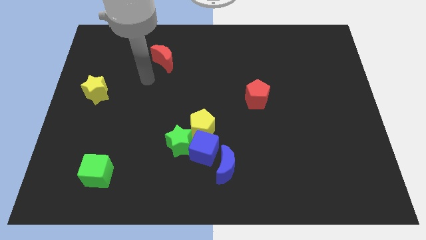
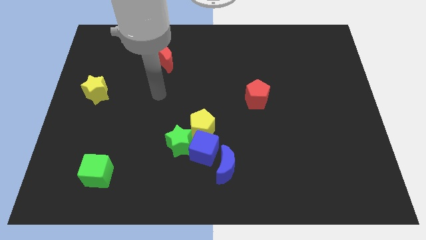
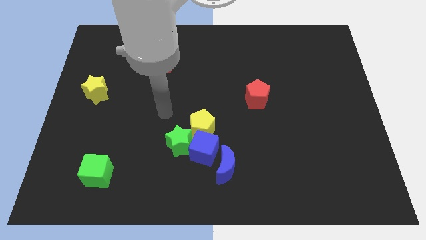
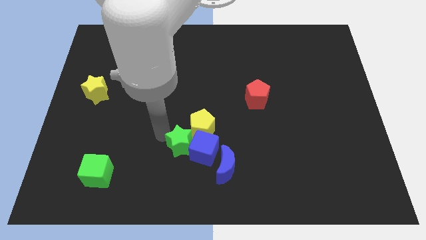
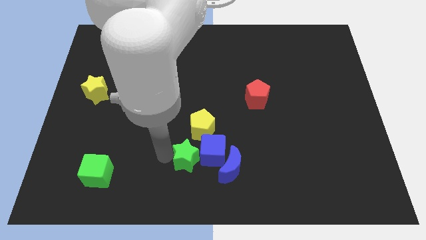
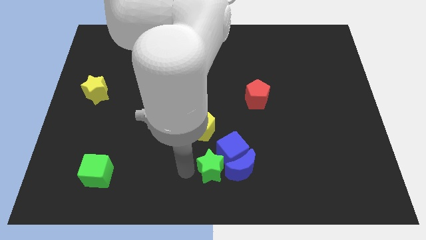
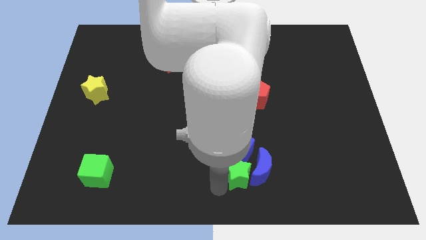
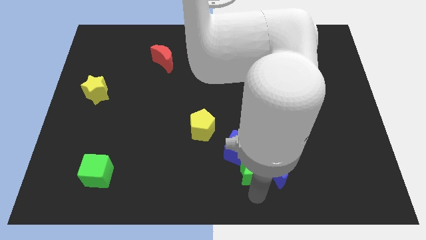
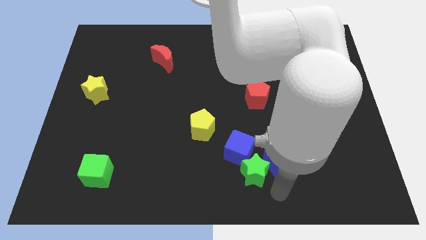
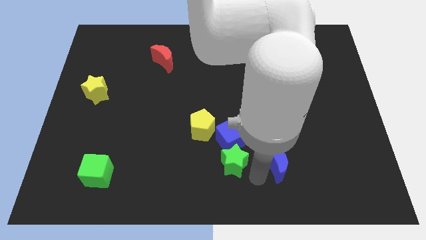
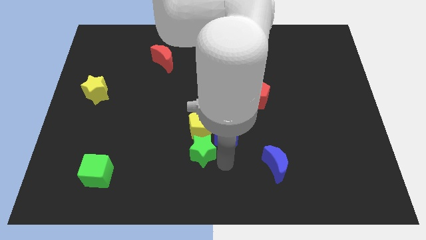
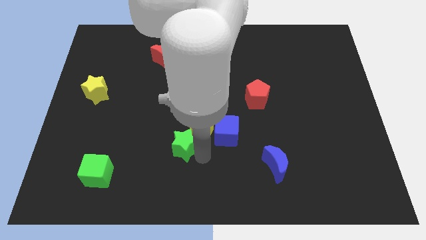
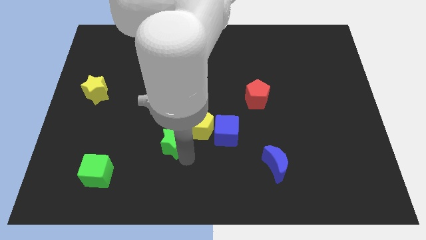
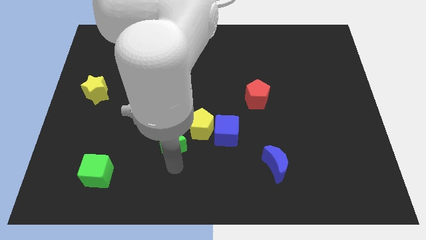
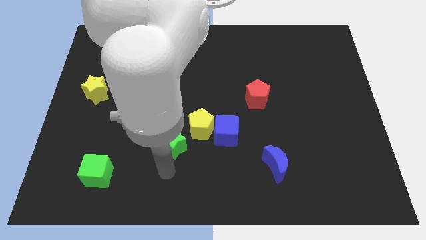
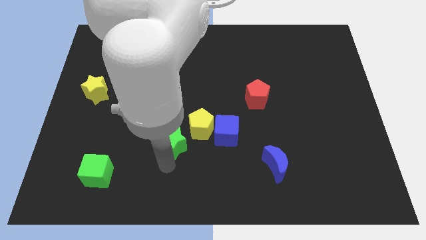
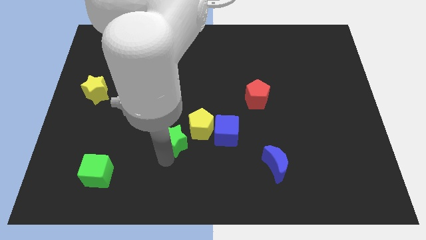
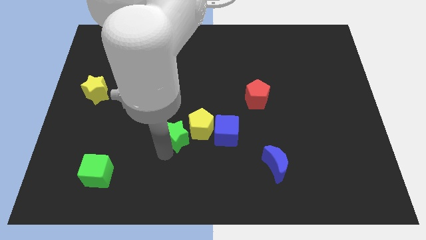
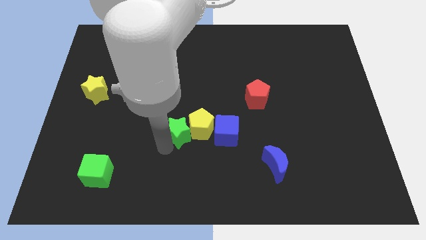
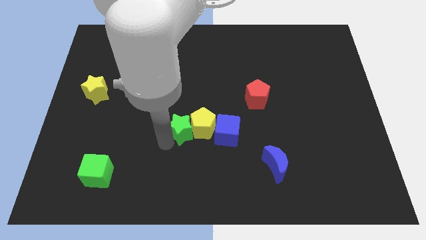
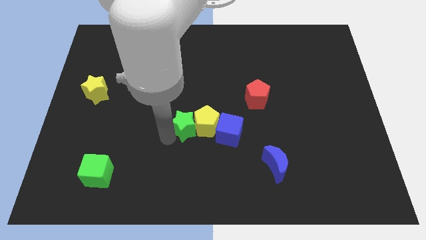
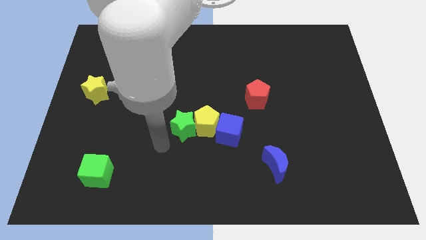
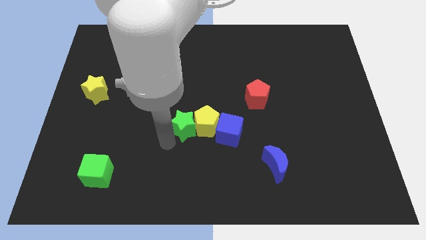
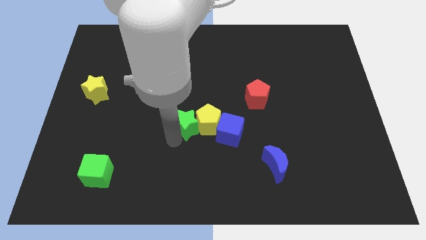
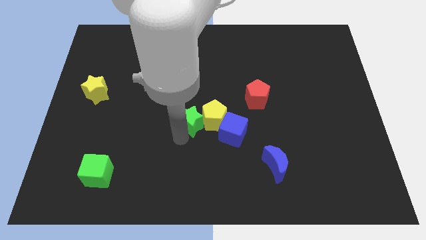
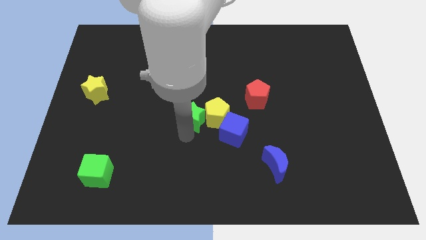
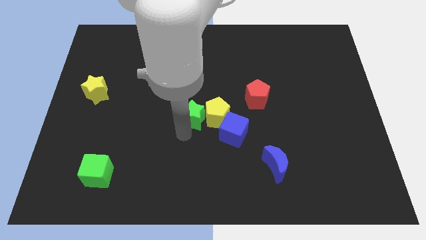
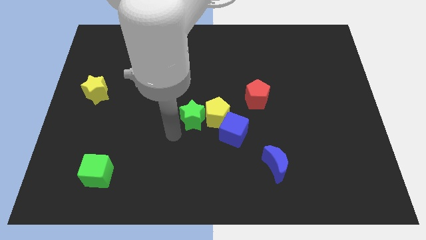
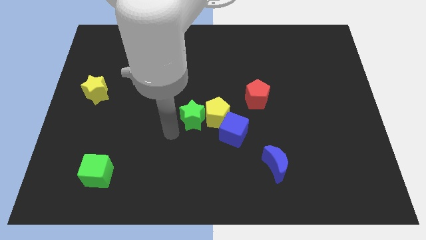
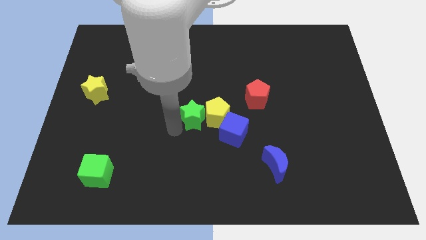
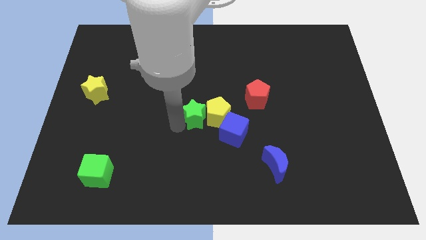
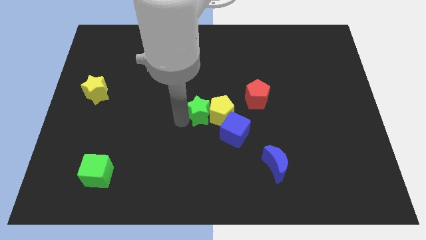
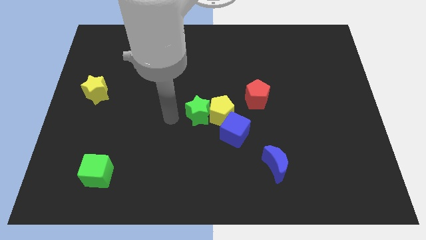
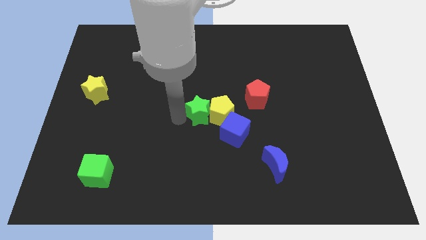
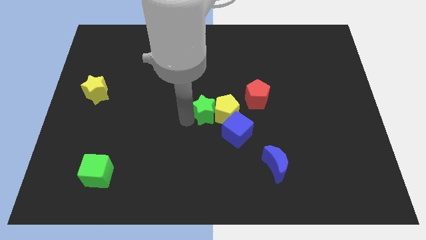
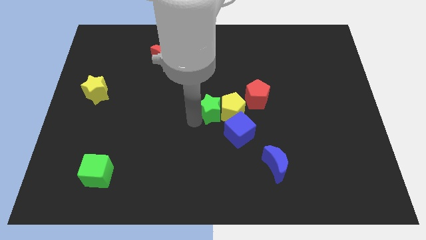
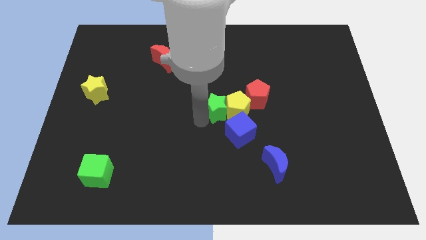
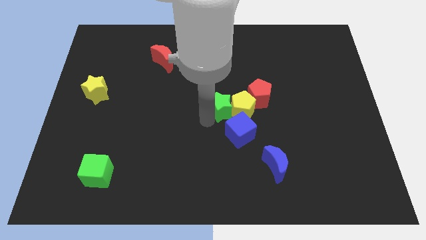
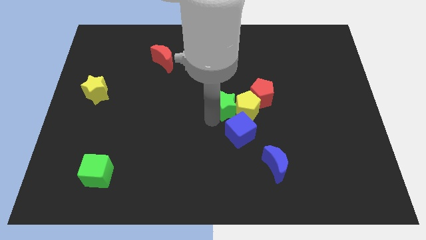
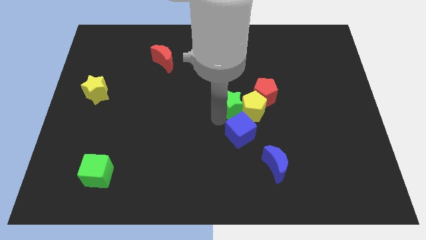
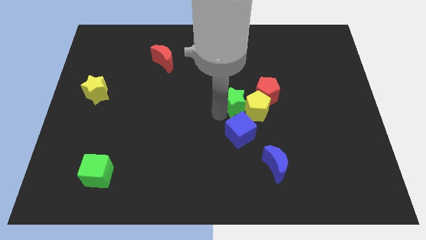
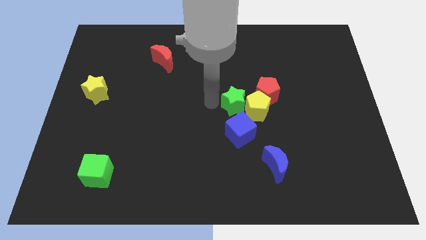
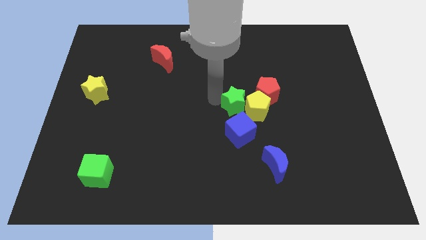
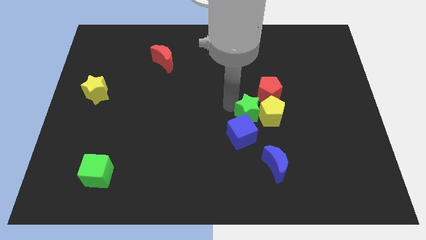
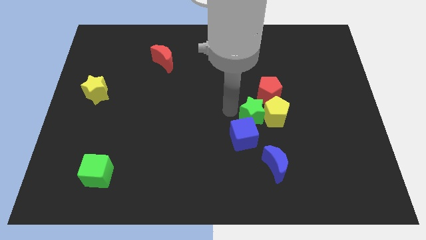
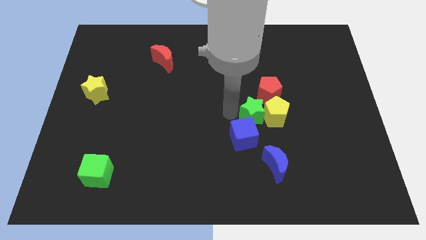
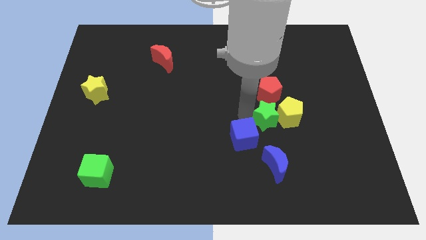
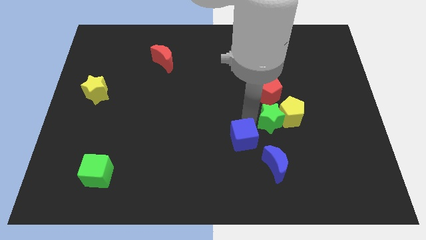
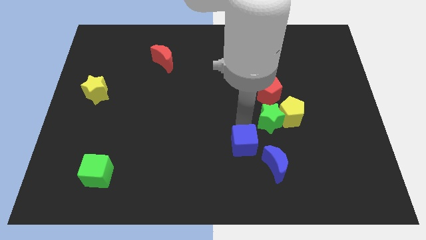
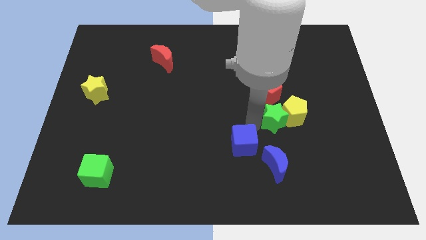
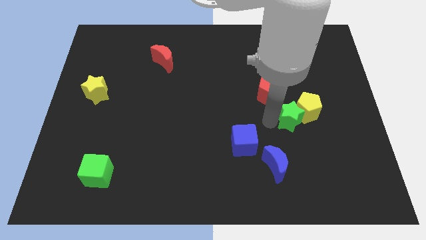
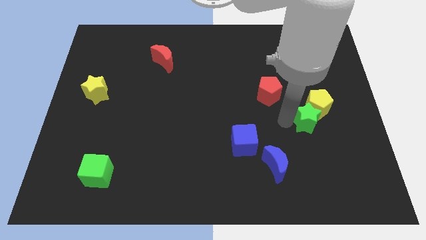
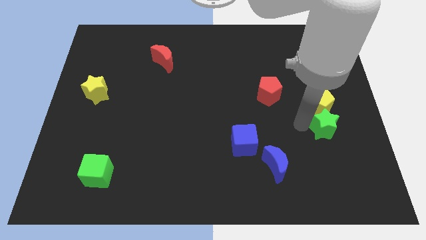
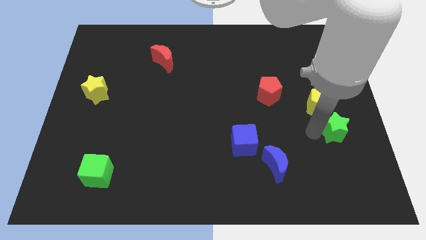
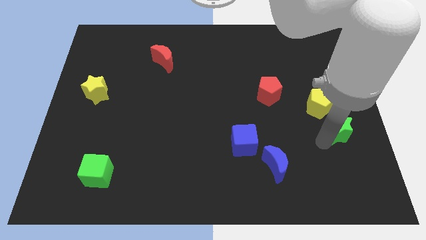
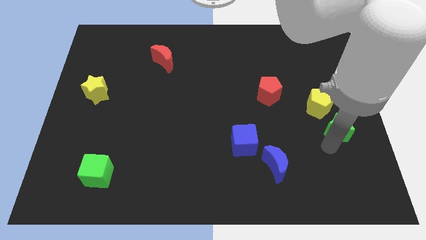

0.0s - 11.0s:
push the green star to the right side

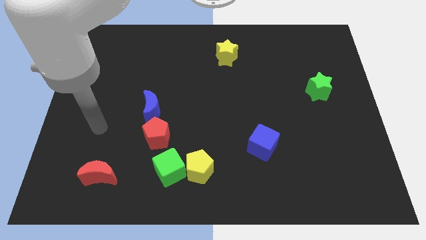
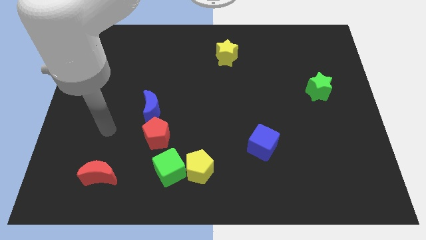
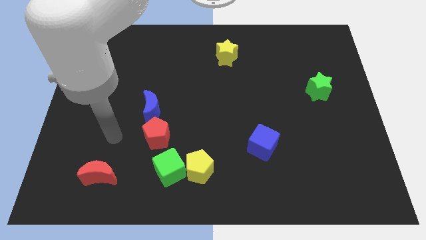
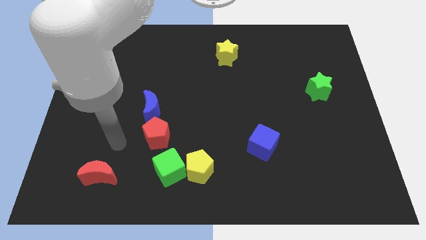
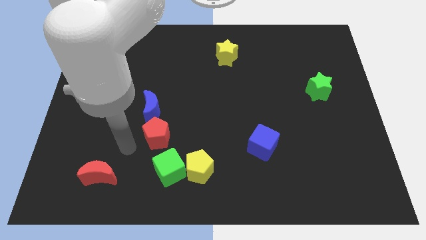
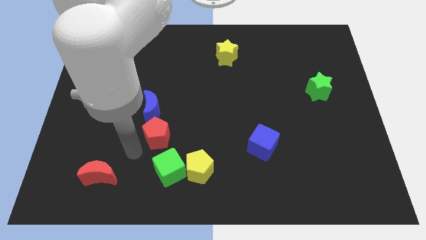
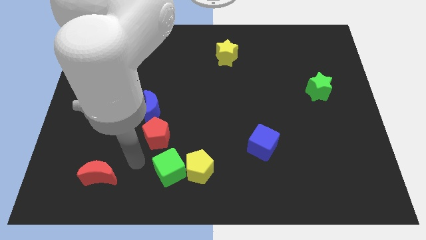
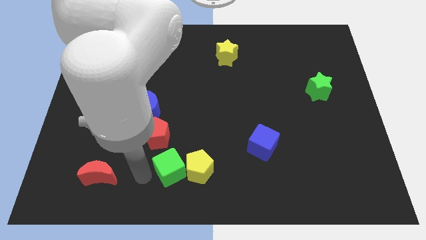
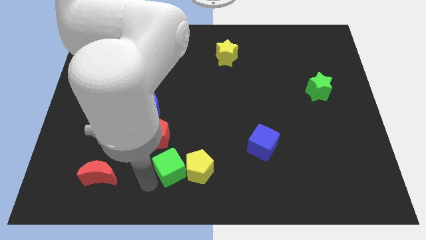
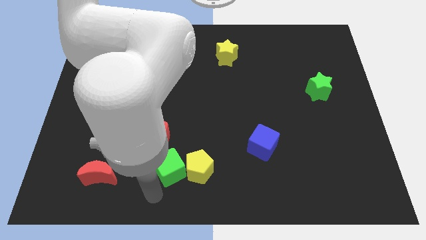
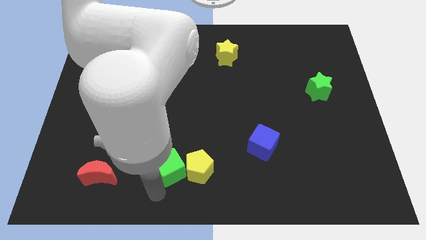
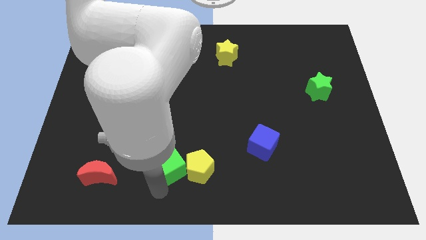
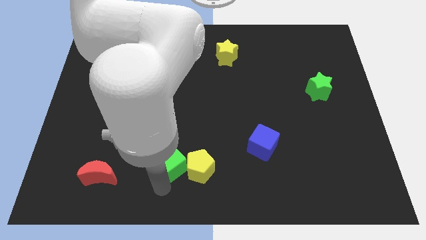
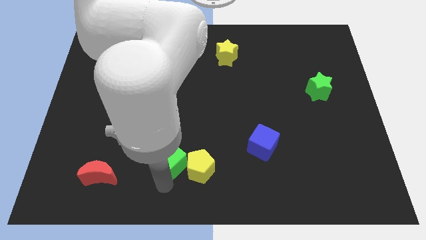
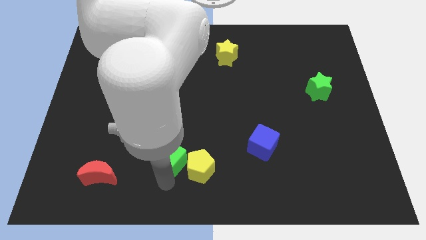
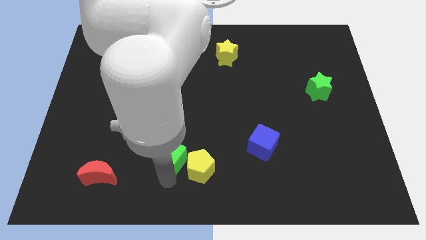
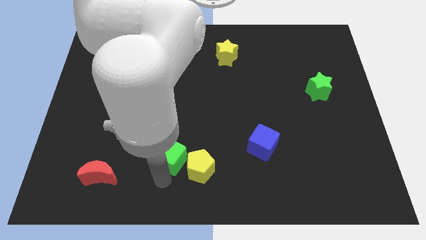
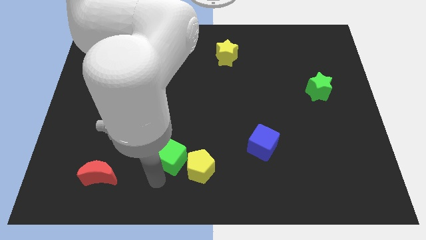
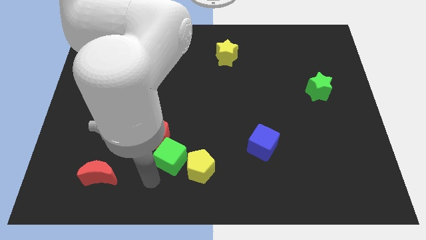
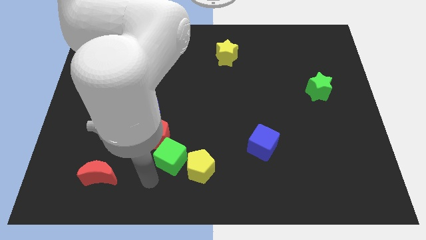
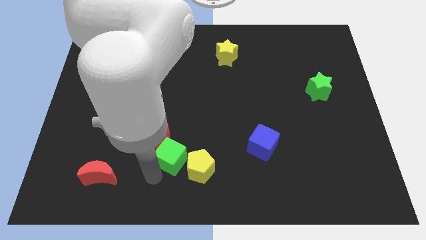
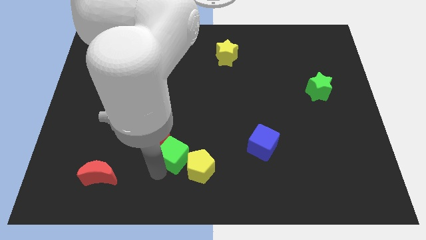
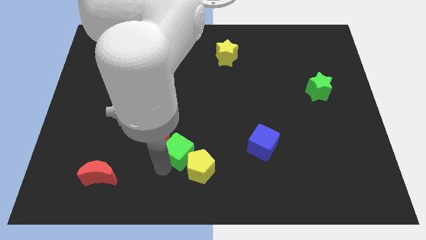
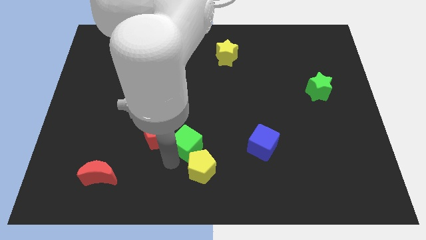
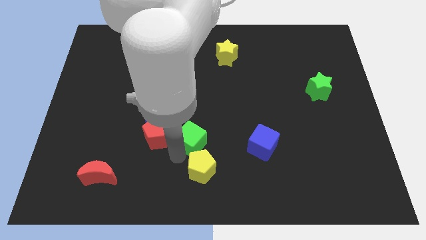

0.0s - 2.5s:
push the green cube to the middle of the board

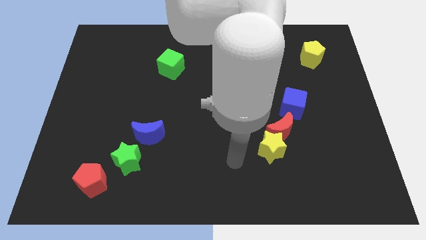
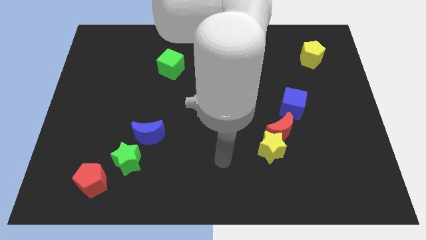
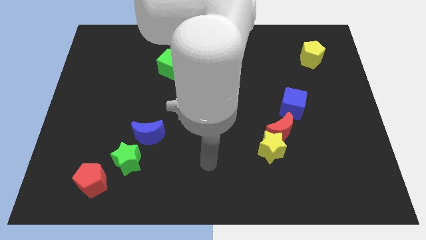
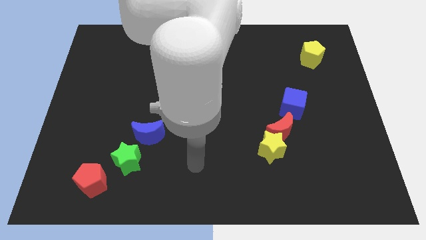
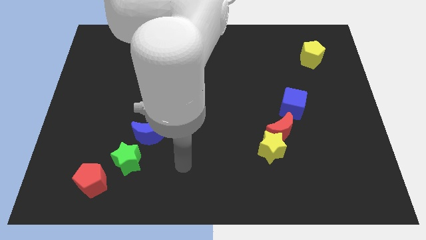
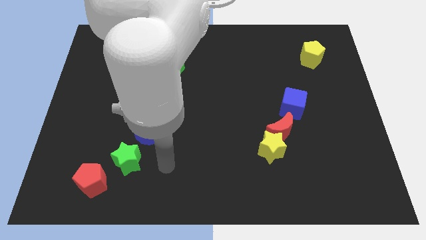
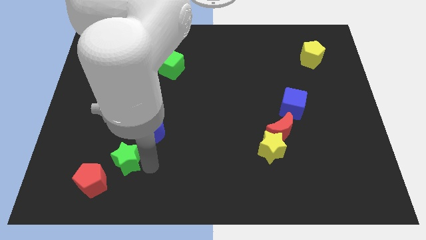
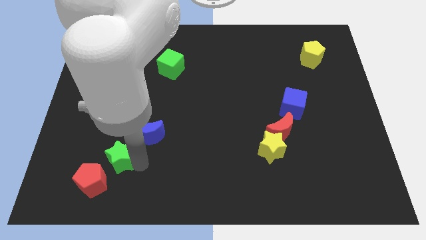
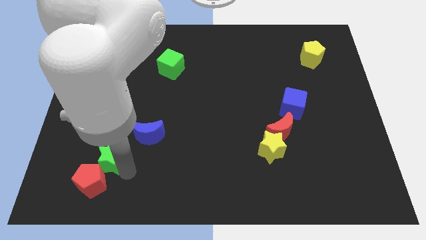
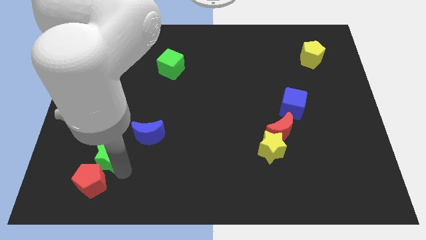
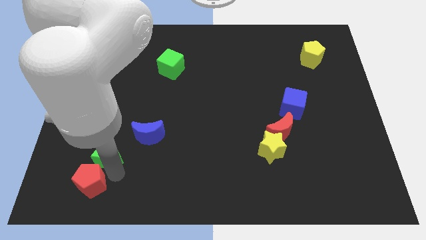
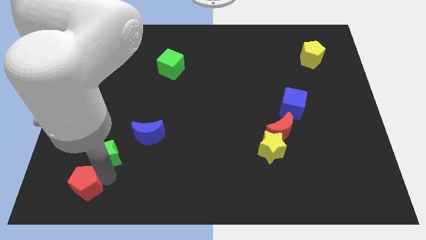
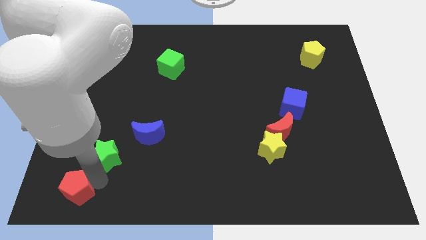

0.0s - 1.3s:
move the red pentagon to the bottom left
